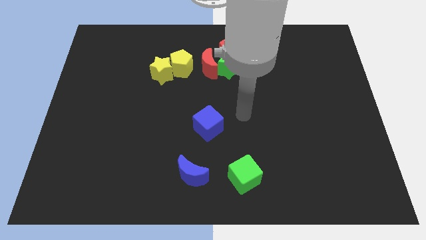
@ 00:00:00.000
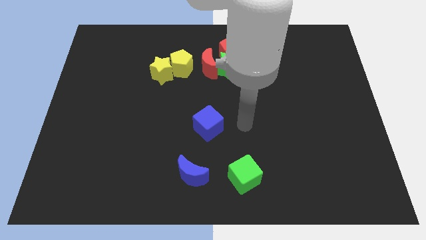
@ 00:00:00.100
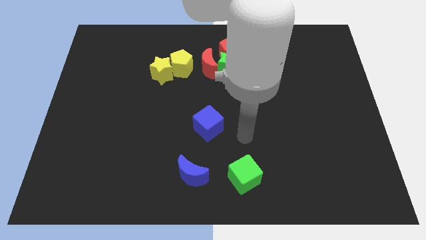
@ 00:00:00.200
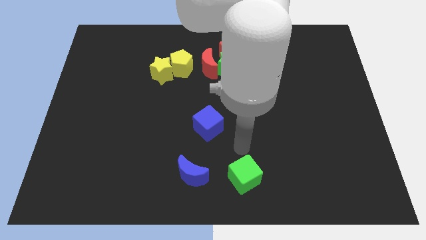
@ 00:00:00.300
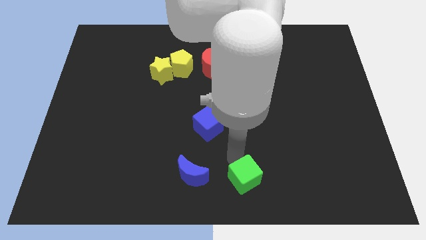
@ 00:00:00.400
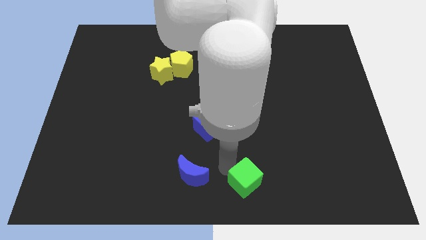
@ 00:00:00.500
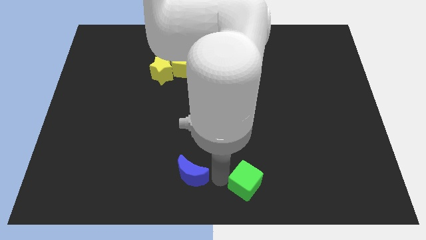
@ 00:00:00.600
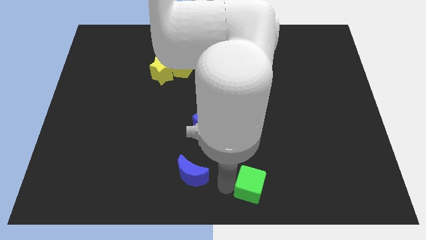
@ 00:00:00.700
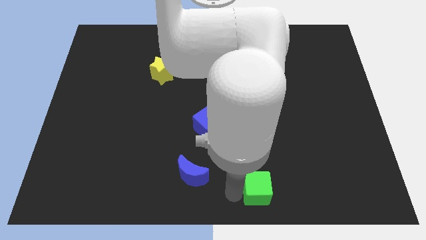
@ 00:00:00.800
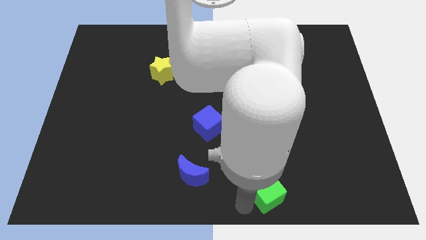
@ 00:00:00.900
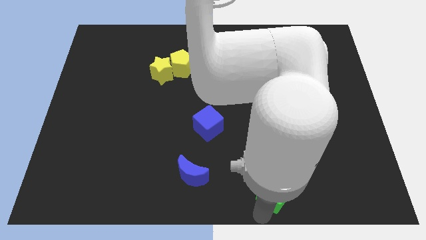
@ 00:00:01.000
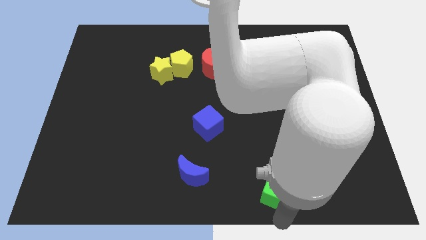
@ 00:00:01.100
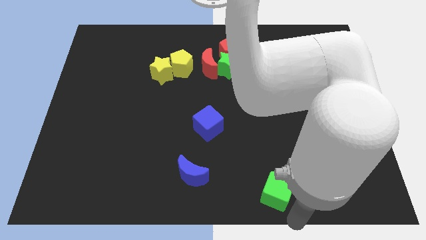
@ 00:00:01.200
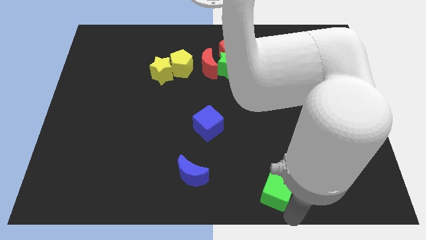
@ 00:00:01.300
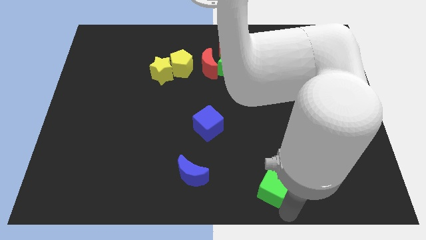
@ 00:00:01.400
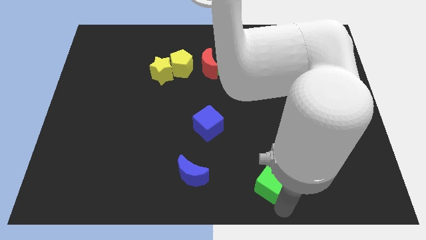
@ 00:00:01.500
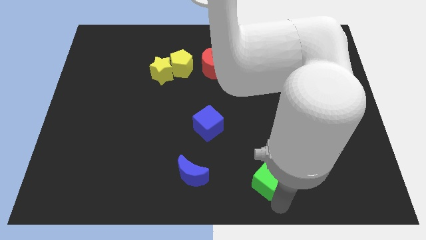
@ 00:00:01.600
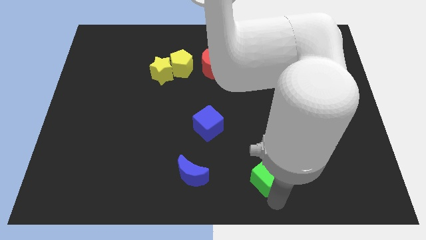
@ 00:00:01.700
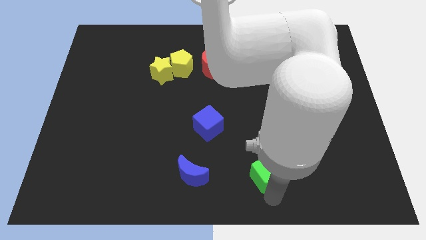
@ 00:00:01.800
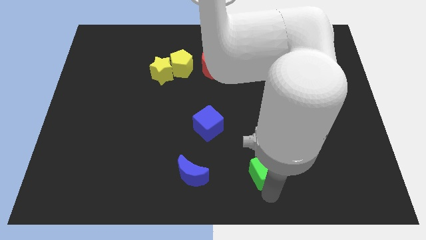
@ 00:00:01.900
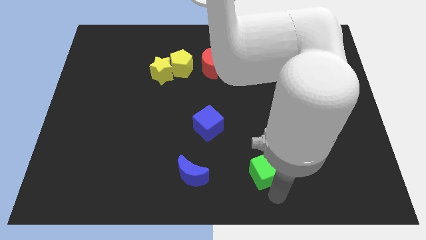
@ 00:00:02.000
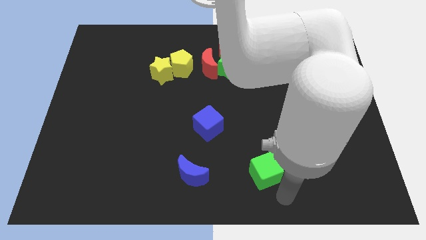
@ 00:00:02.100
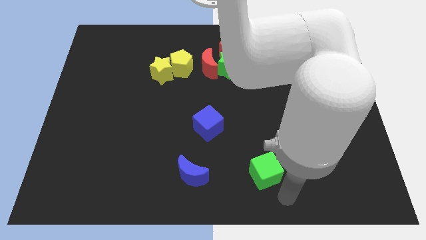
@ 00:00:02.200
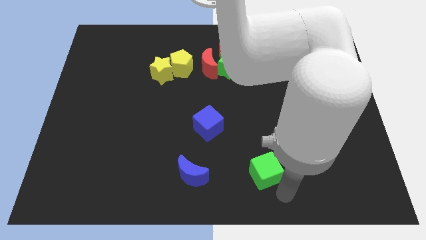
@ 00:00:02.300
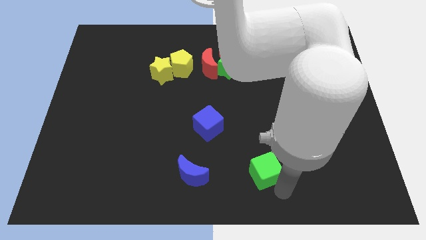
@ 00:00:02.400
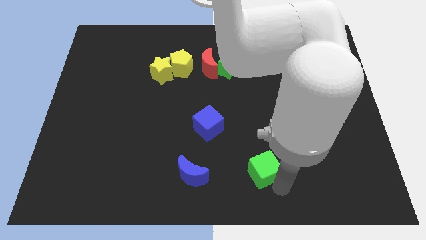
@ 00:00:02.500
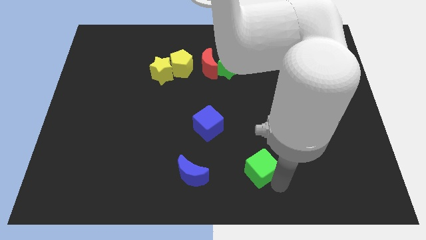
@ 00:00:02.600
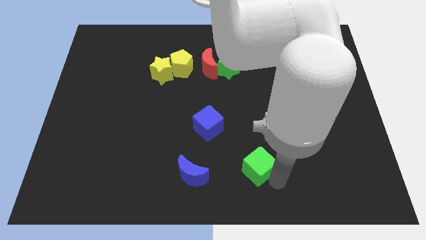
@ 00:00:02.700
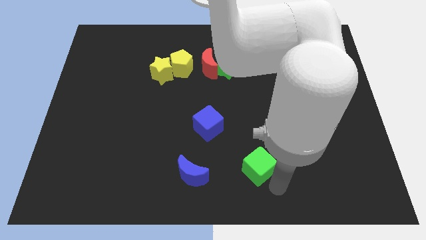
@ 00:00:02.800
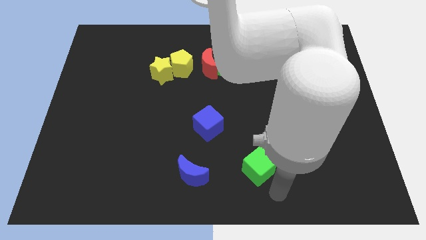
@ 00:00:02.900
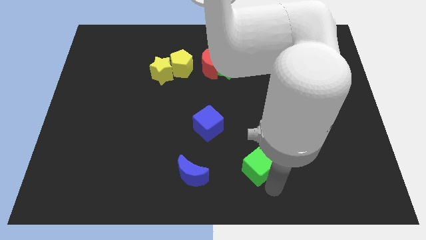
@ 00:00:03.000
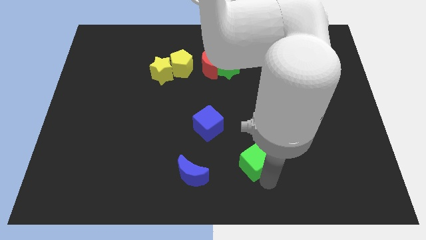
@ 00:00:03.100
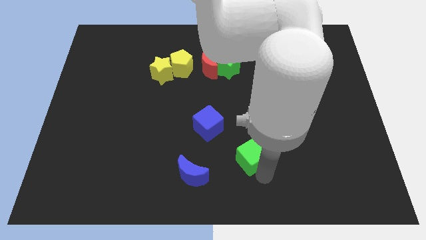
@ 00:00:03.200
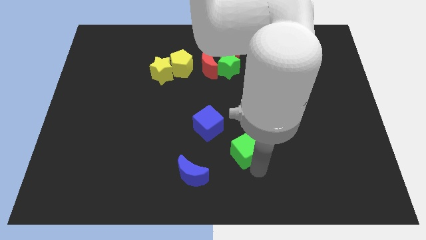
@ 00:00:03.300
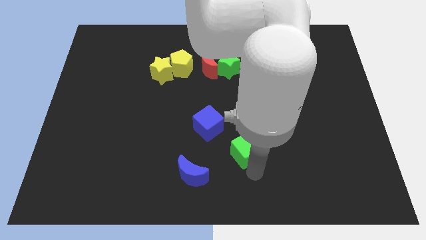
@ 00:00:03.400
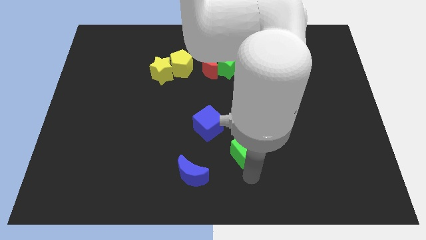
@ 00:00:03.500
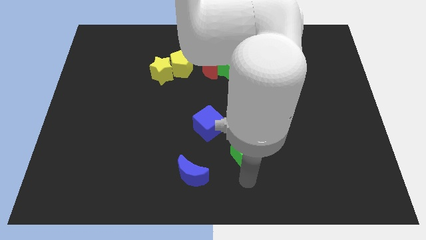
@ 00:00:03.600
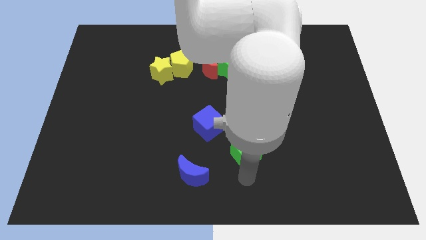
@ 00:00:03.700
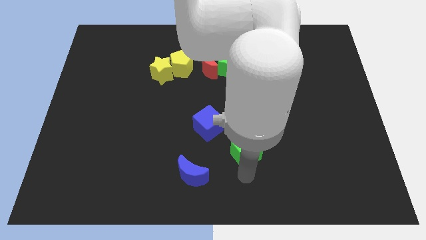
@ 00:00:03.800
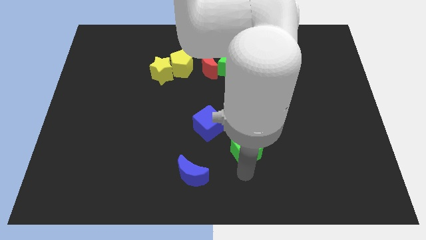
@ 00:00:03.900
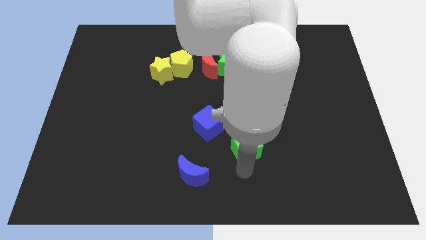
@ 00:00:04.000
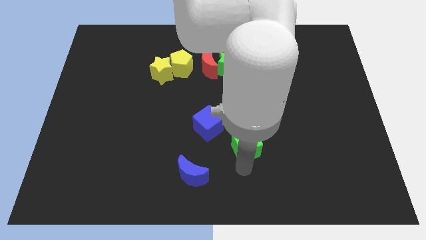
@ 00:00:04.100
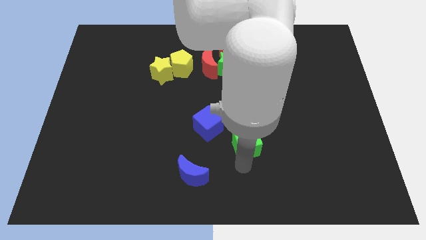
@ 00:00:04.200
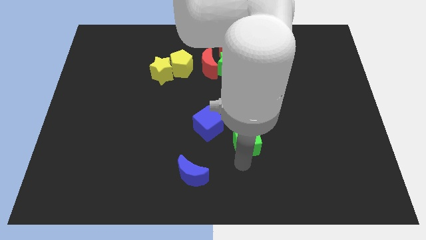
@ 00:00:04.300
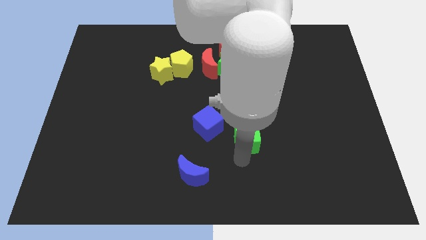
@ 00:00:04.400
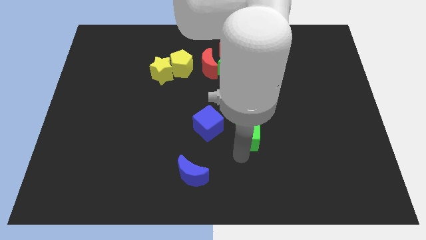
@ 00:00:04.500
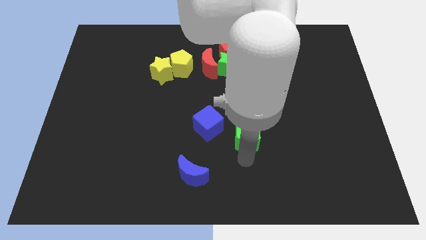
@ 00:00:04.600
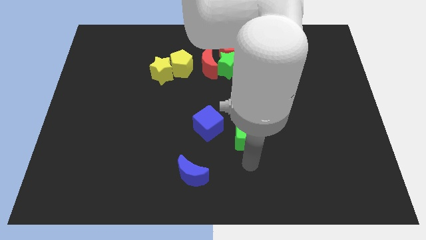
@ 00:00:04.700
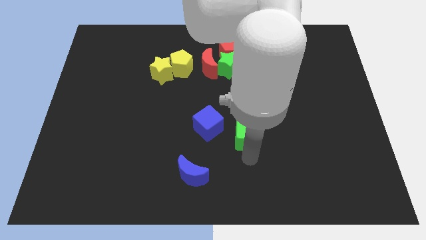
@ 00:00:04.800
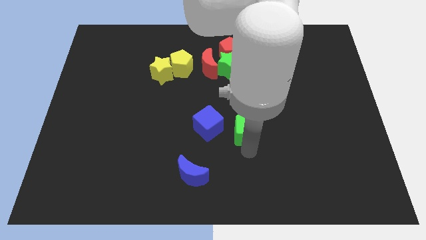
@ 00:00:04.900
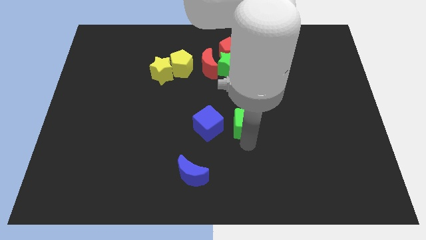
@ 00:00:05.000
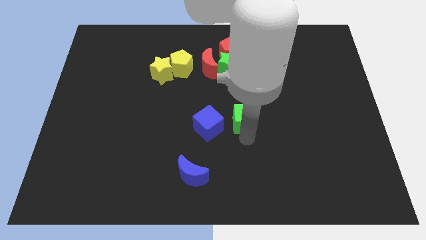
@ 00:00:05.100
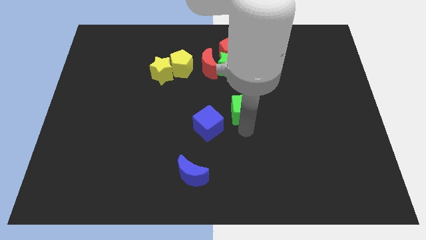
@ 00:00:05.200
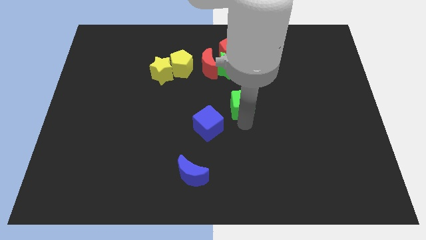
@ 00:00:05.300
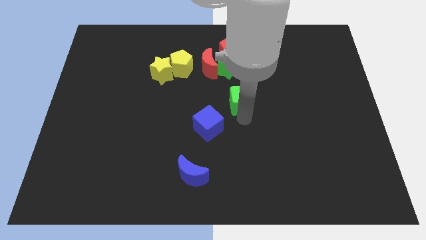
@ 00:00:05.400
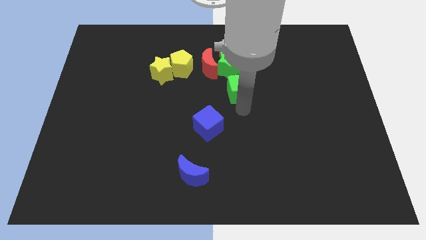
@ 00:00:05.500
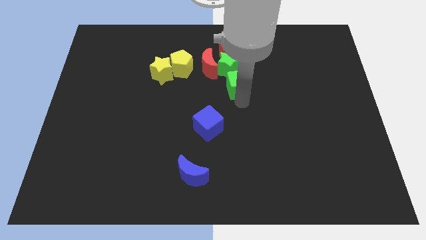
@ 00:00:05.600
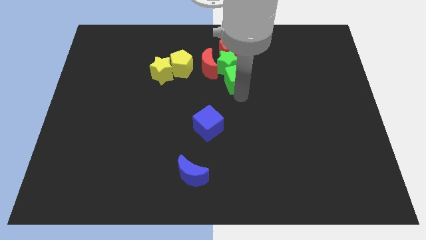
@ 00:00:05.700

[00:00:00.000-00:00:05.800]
slide the green cube towards the green star
